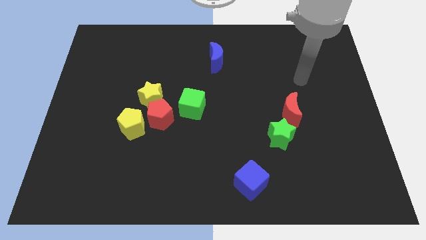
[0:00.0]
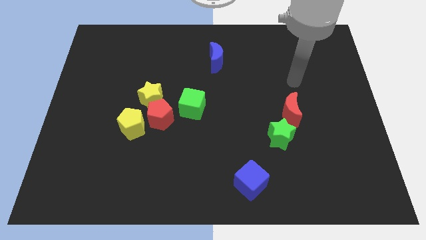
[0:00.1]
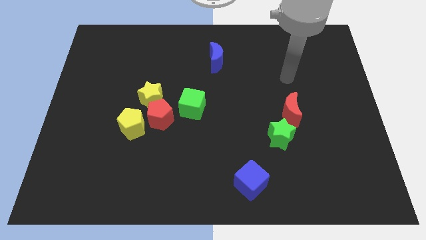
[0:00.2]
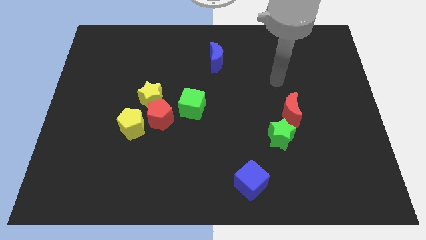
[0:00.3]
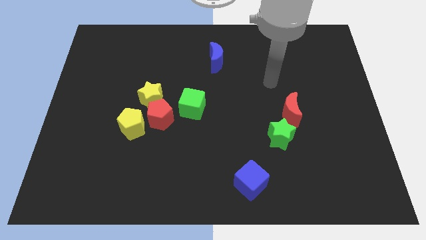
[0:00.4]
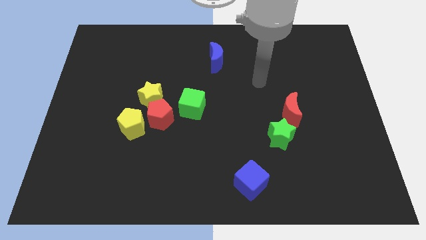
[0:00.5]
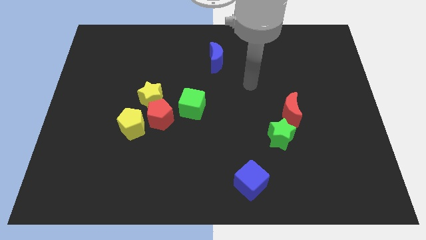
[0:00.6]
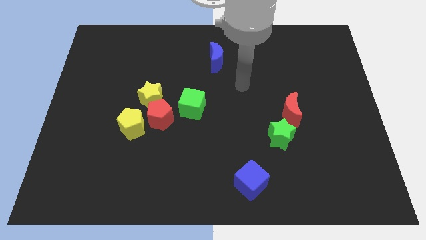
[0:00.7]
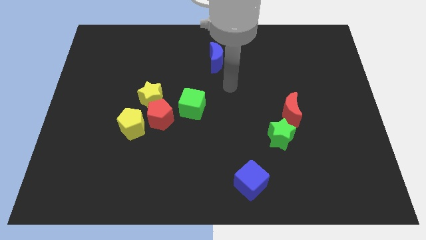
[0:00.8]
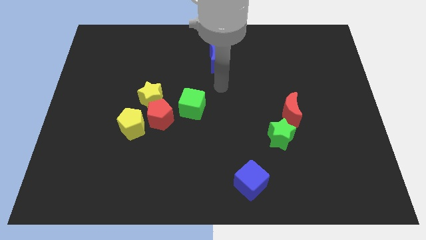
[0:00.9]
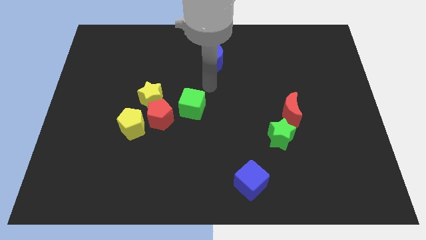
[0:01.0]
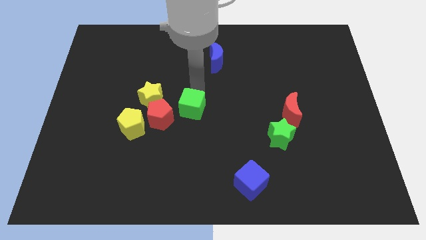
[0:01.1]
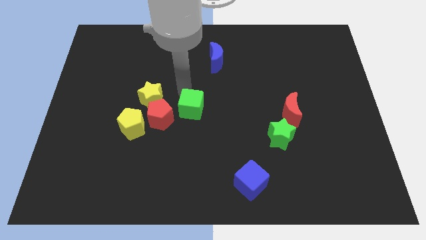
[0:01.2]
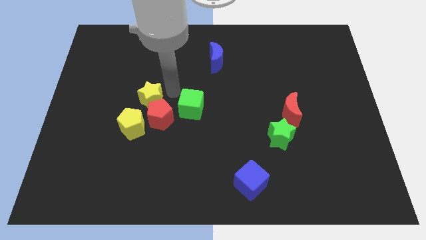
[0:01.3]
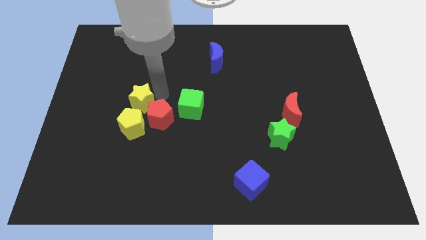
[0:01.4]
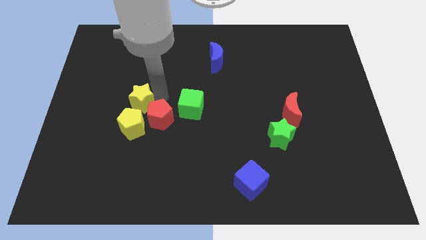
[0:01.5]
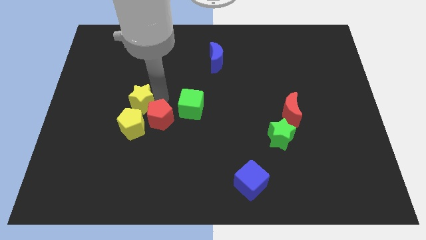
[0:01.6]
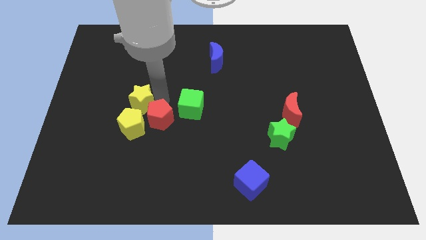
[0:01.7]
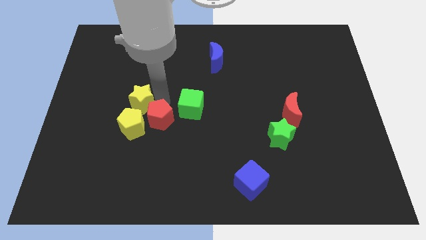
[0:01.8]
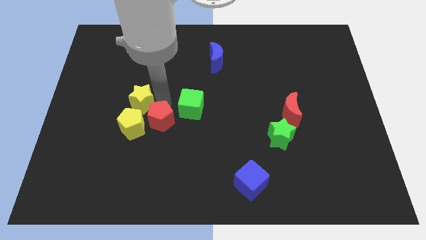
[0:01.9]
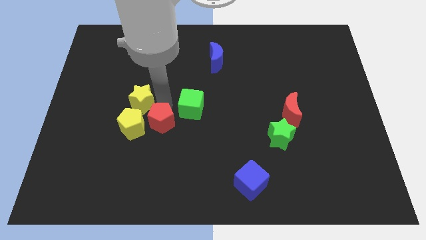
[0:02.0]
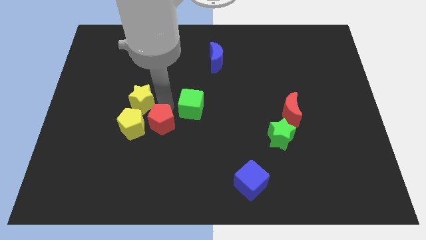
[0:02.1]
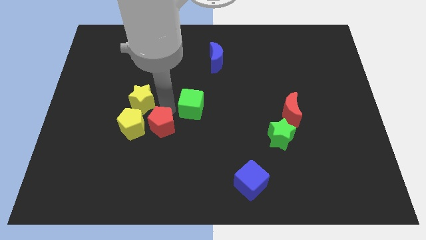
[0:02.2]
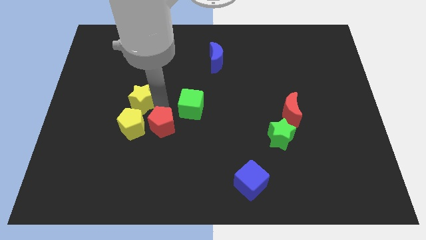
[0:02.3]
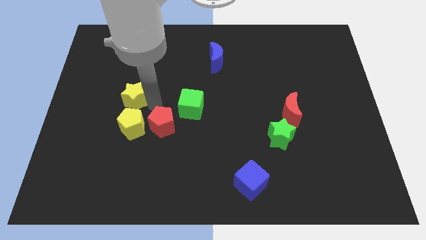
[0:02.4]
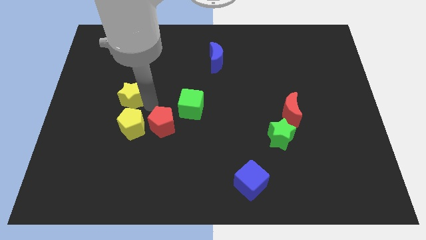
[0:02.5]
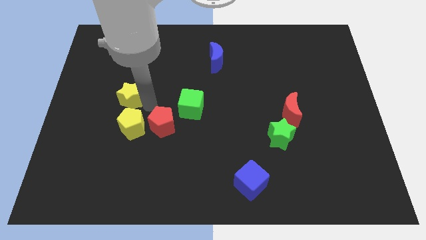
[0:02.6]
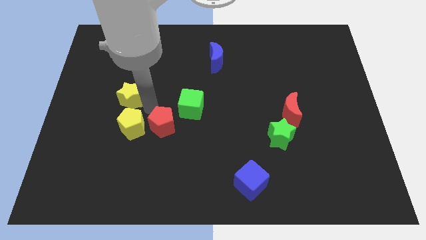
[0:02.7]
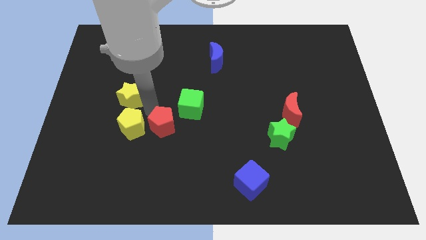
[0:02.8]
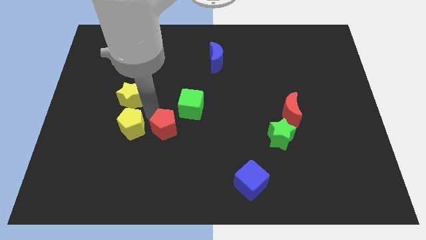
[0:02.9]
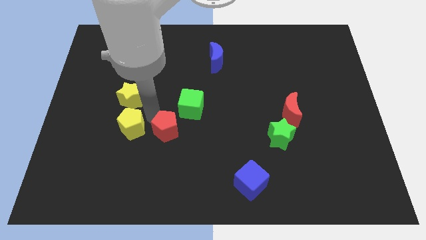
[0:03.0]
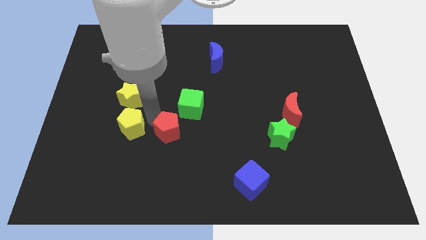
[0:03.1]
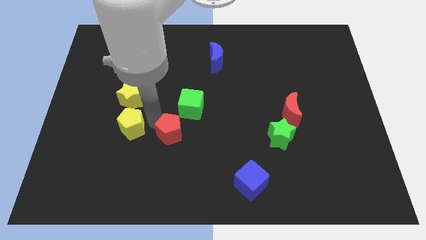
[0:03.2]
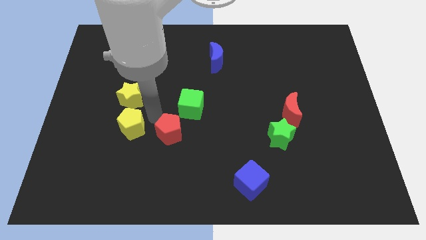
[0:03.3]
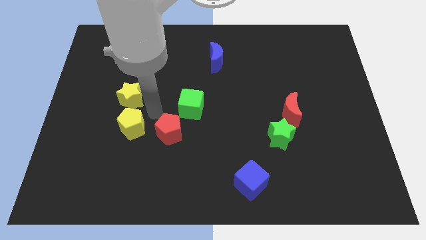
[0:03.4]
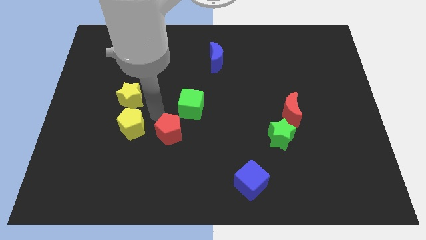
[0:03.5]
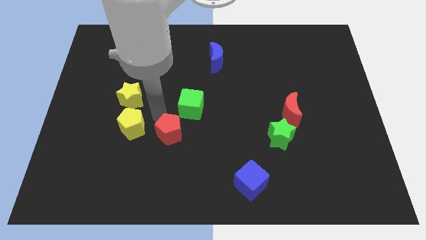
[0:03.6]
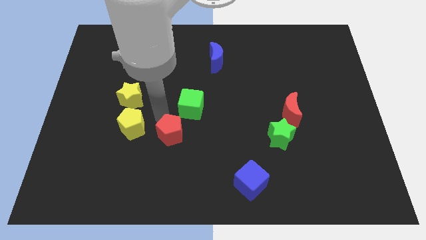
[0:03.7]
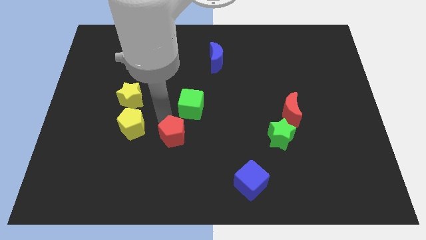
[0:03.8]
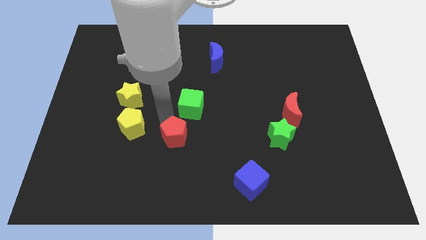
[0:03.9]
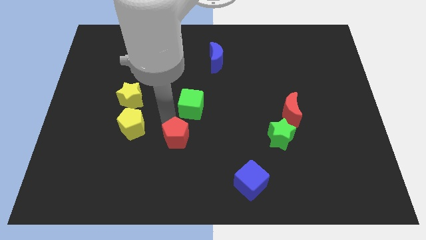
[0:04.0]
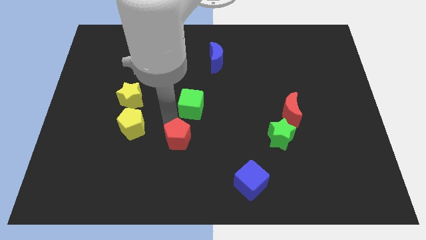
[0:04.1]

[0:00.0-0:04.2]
move the red pentagon away from the clump

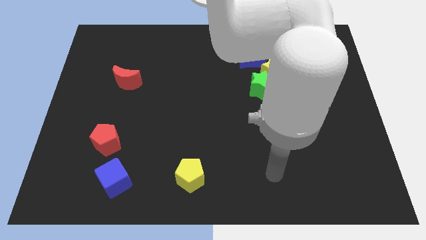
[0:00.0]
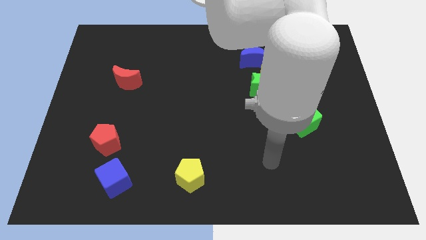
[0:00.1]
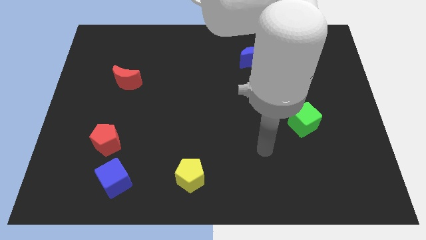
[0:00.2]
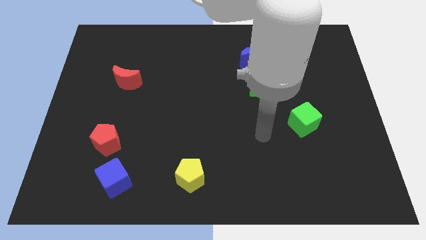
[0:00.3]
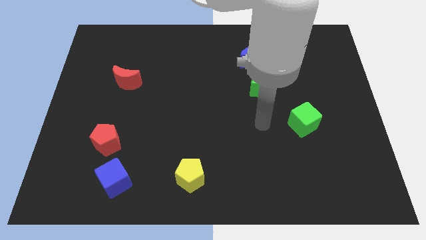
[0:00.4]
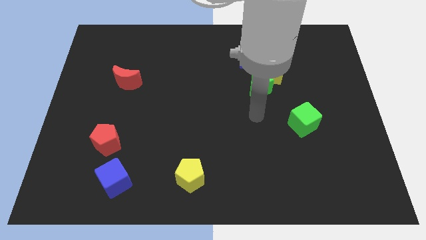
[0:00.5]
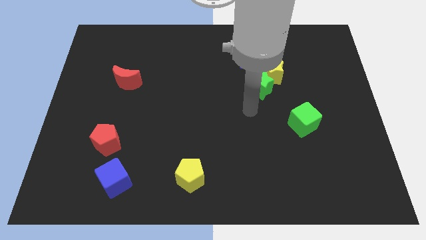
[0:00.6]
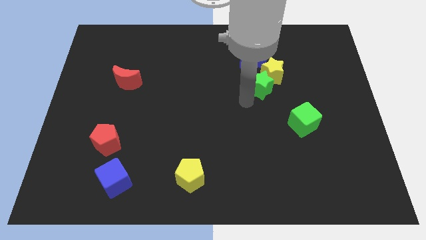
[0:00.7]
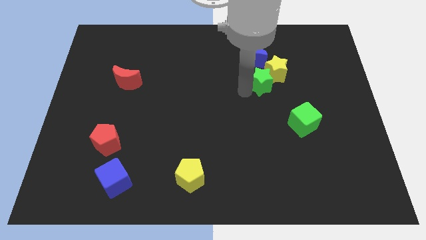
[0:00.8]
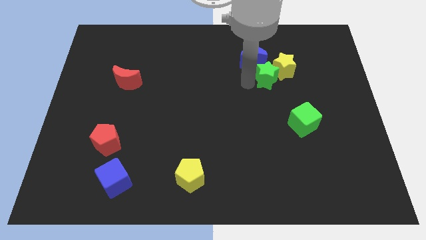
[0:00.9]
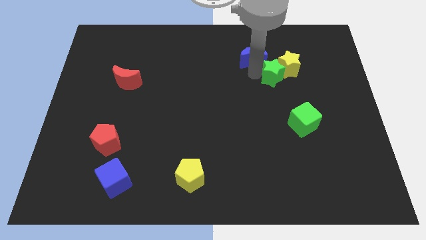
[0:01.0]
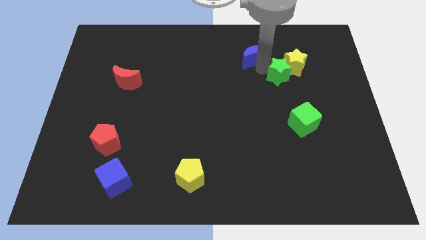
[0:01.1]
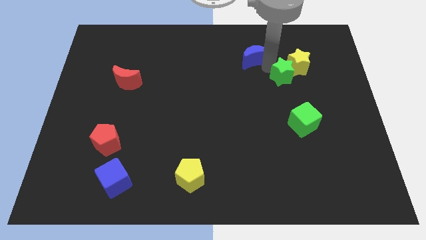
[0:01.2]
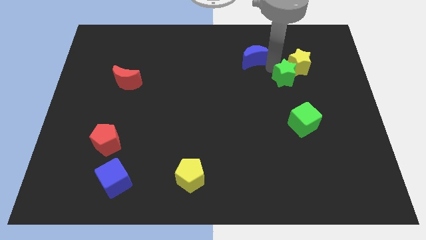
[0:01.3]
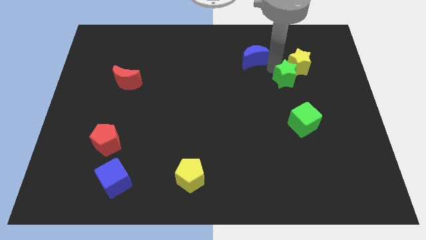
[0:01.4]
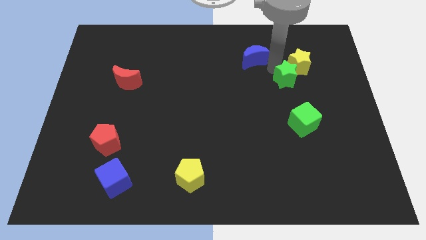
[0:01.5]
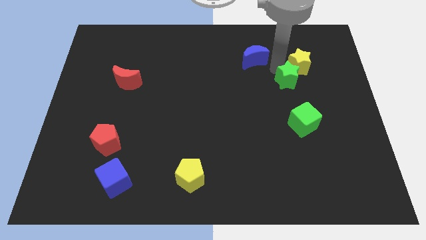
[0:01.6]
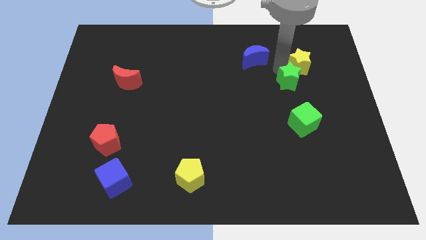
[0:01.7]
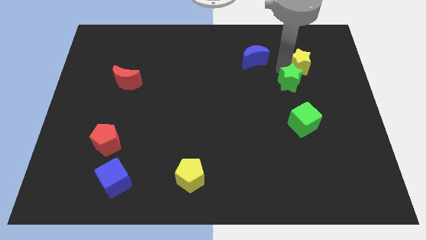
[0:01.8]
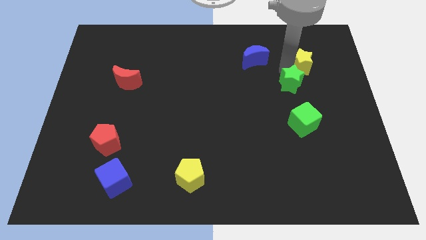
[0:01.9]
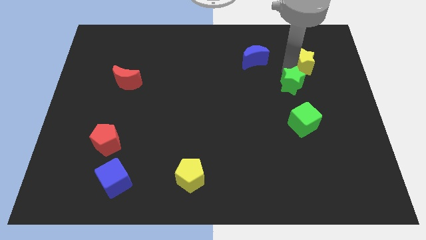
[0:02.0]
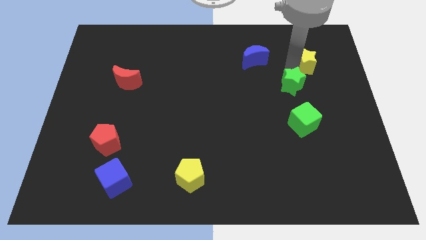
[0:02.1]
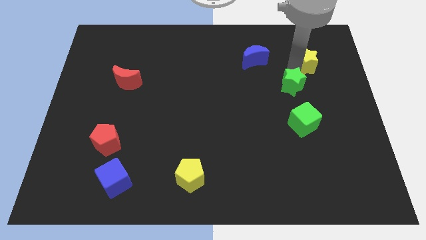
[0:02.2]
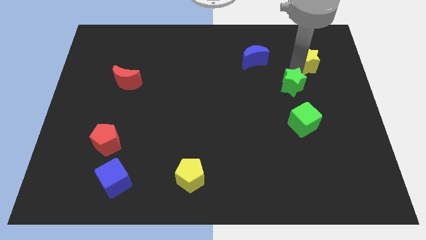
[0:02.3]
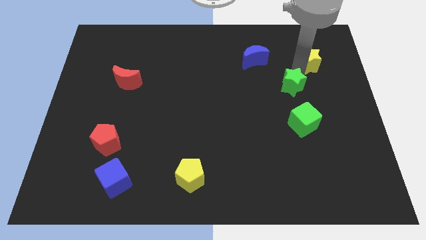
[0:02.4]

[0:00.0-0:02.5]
separate the yellow star from the green star and blue moon

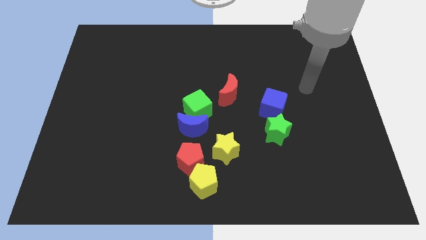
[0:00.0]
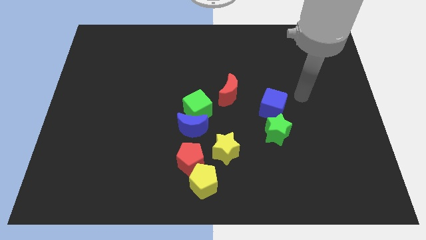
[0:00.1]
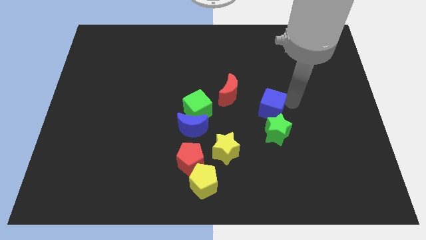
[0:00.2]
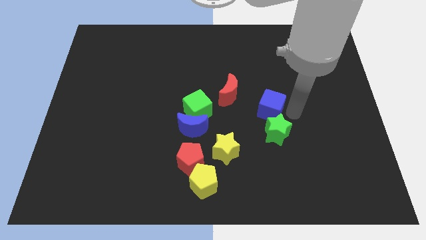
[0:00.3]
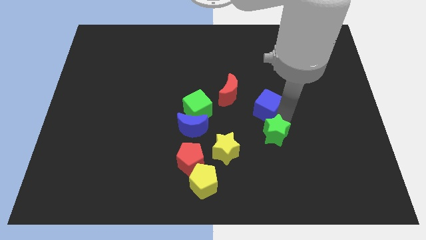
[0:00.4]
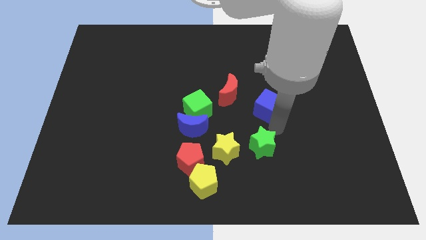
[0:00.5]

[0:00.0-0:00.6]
pull the blue cube apart from the green star

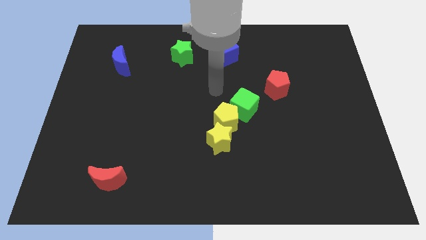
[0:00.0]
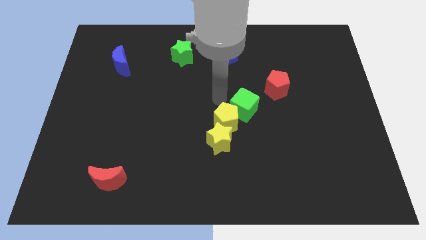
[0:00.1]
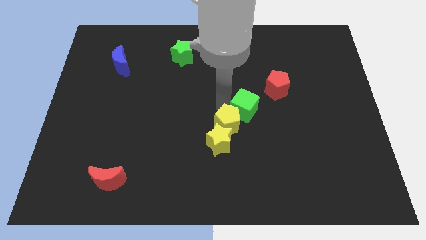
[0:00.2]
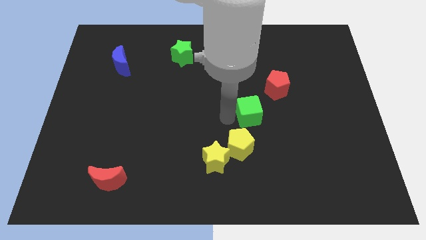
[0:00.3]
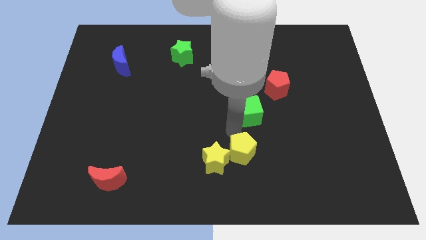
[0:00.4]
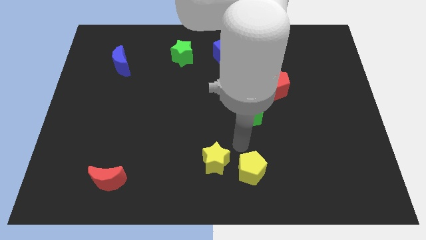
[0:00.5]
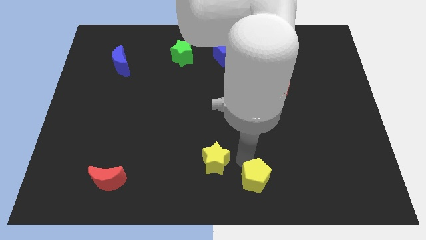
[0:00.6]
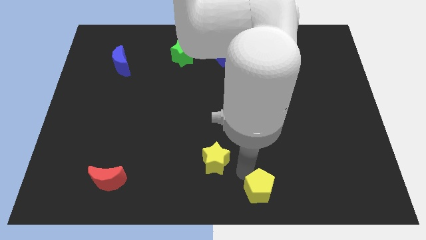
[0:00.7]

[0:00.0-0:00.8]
move the yellow star away from the yellow pentagon

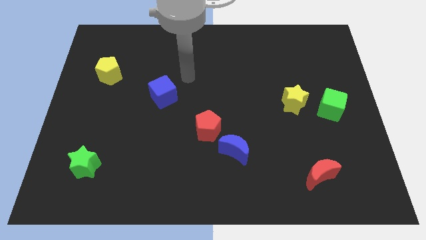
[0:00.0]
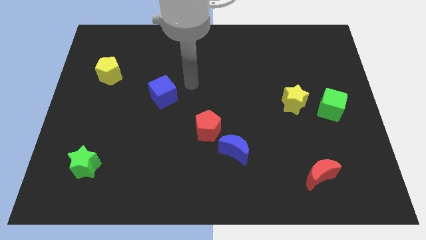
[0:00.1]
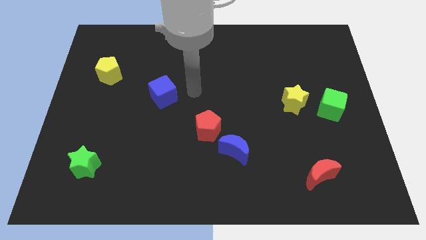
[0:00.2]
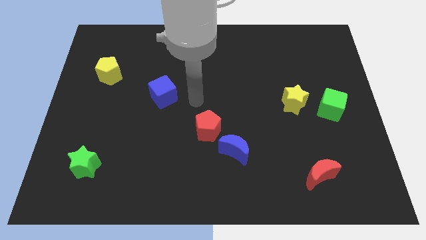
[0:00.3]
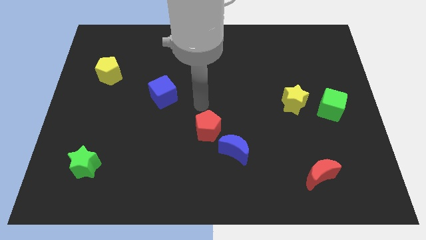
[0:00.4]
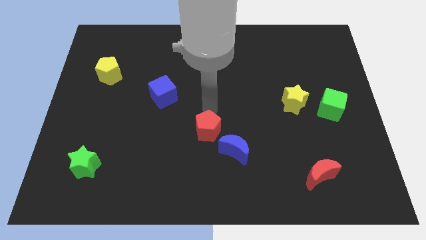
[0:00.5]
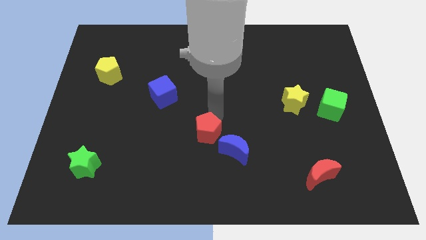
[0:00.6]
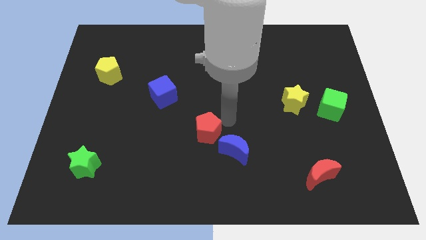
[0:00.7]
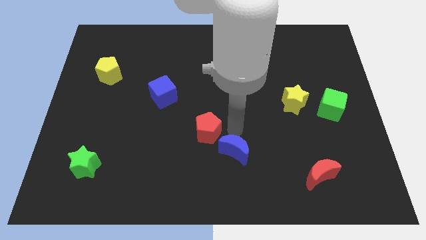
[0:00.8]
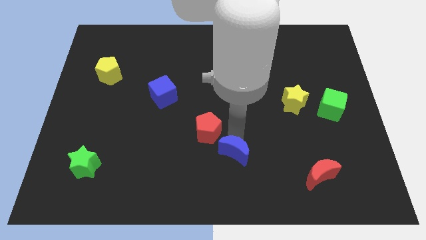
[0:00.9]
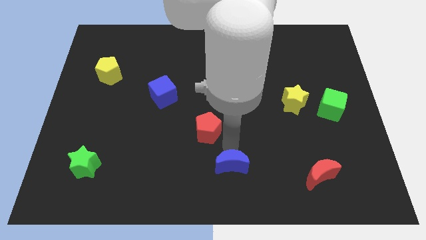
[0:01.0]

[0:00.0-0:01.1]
separate the red pentagon from the blue moon

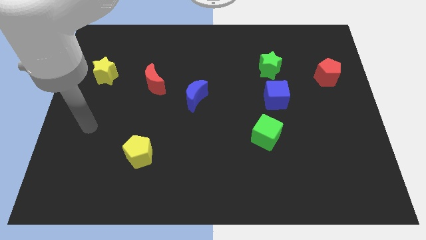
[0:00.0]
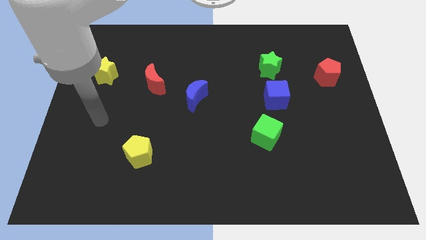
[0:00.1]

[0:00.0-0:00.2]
move the blue cube away from the green star
